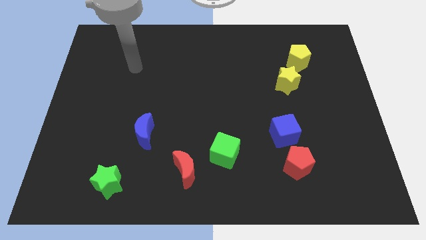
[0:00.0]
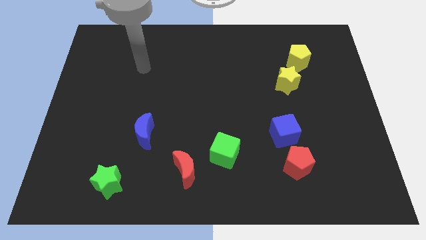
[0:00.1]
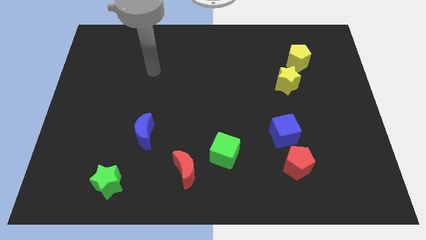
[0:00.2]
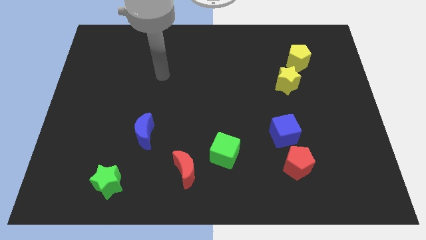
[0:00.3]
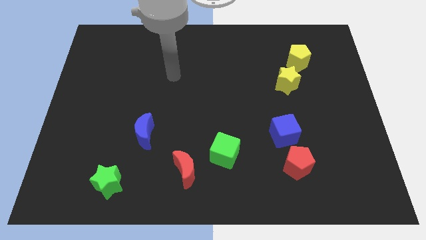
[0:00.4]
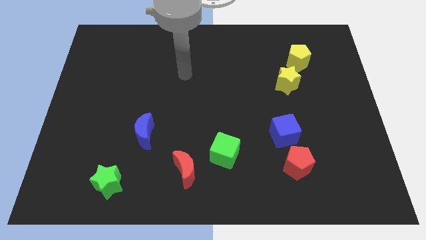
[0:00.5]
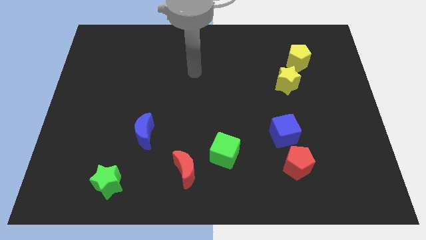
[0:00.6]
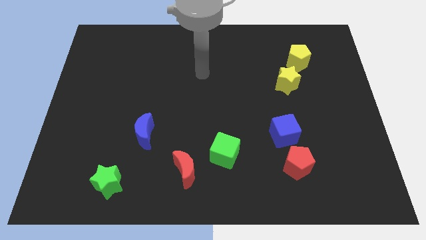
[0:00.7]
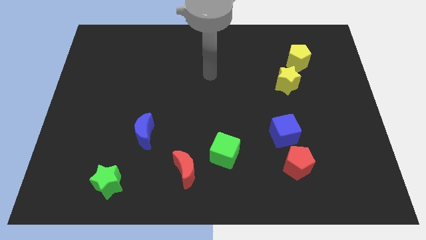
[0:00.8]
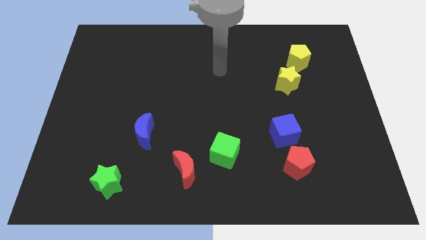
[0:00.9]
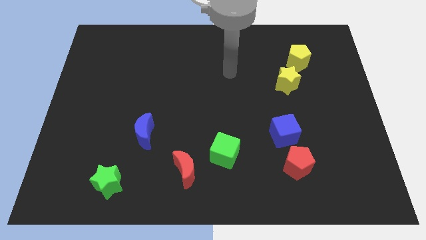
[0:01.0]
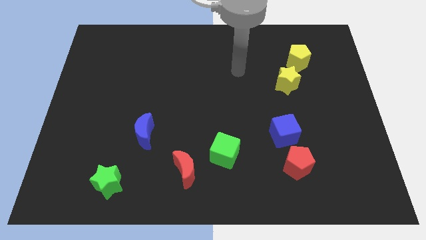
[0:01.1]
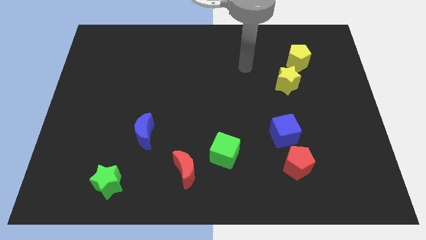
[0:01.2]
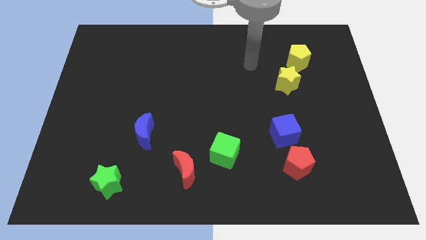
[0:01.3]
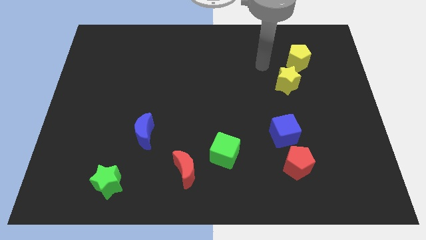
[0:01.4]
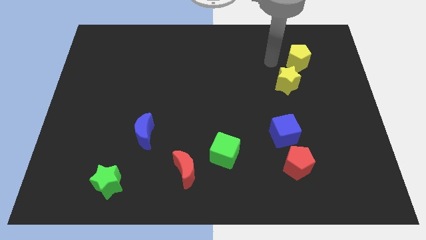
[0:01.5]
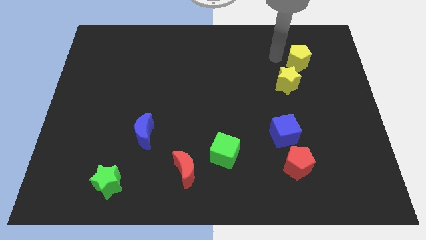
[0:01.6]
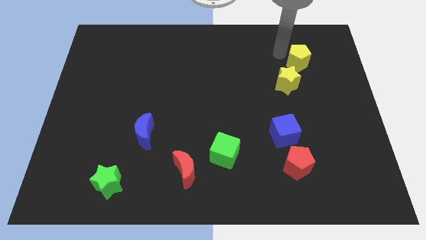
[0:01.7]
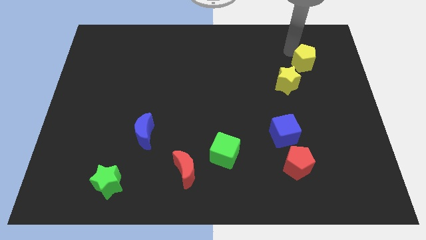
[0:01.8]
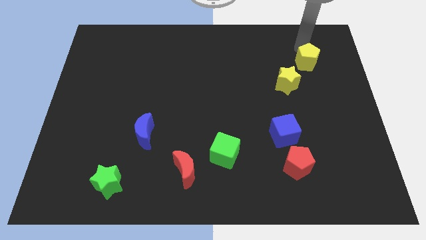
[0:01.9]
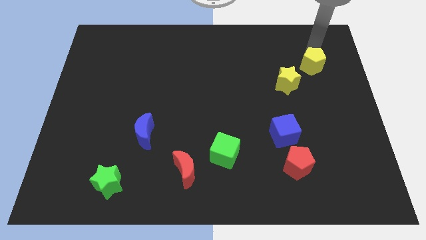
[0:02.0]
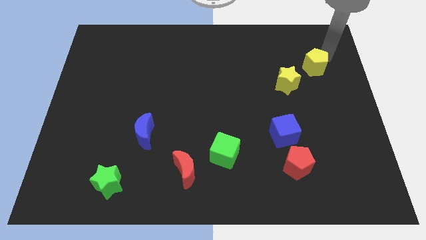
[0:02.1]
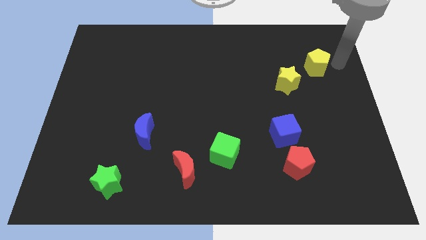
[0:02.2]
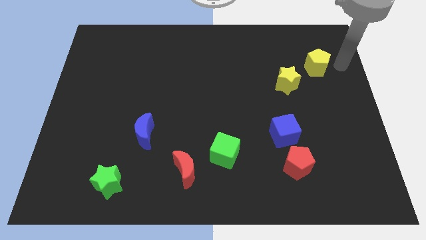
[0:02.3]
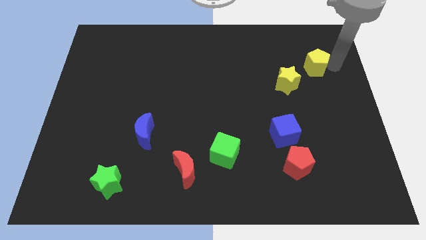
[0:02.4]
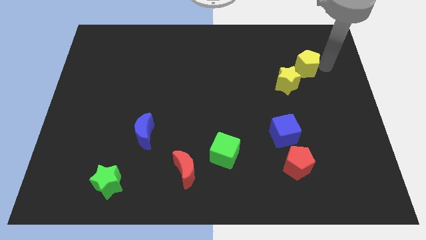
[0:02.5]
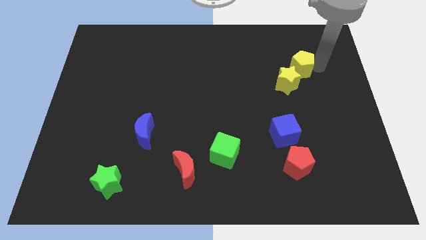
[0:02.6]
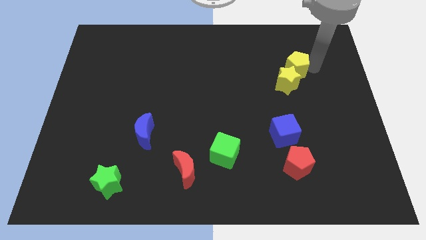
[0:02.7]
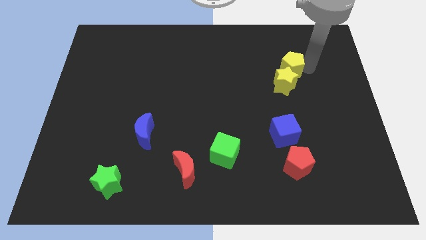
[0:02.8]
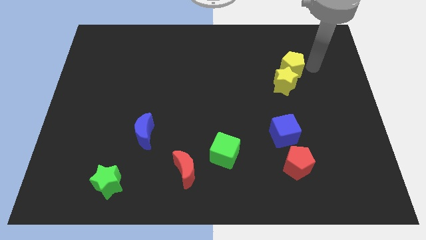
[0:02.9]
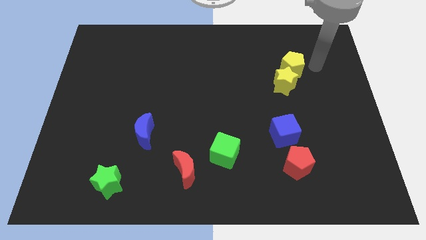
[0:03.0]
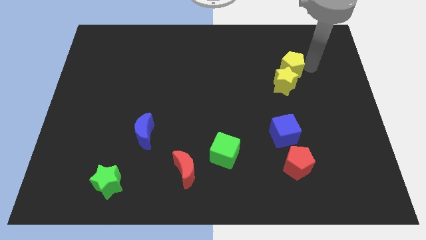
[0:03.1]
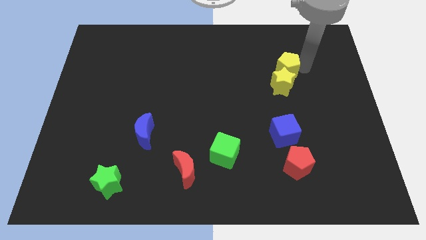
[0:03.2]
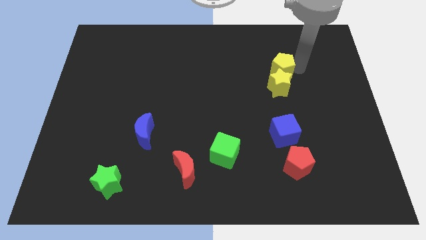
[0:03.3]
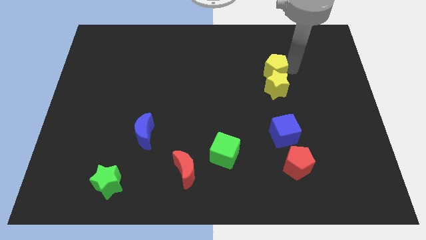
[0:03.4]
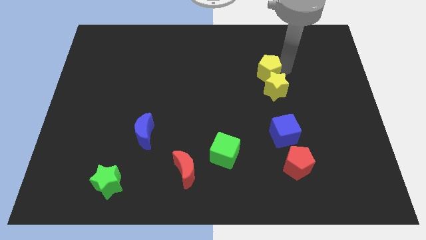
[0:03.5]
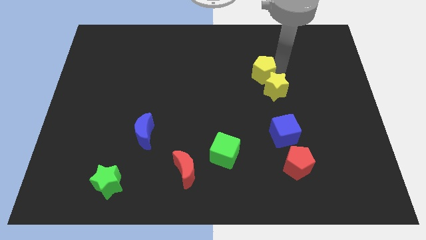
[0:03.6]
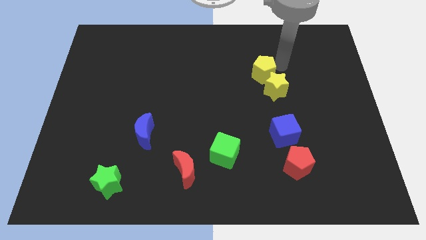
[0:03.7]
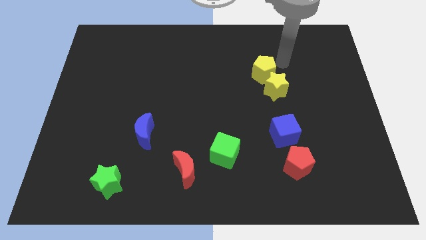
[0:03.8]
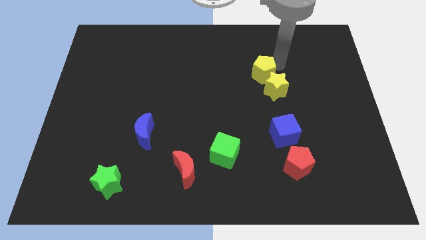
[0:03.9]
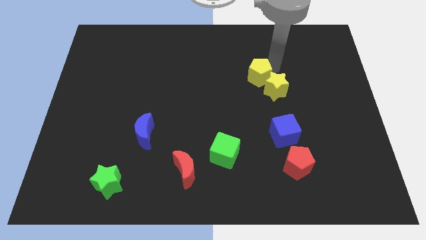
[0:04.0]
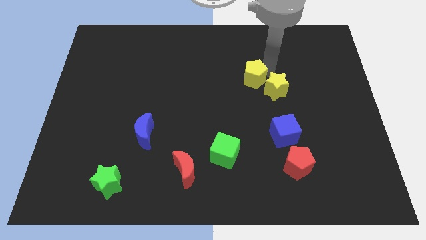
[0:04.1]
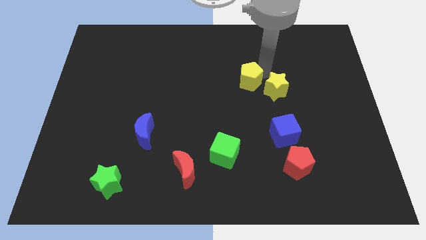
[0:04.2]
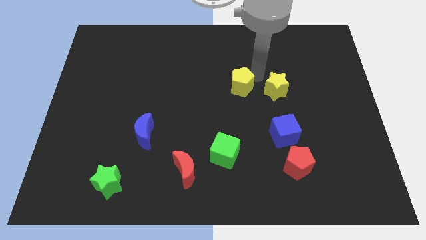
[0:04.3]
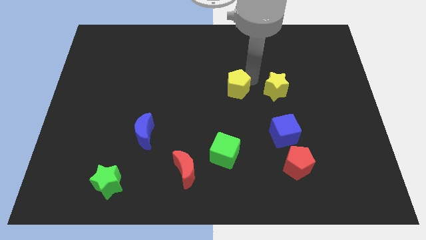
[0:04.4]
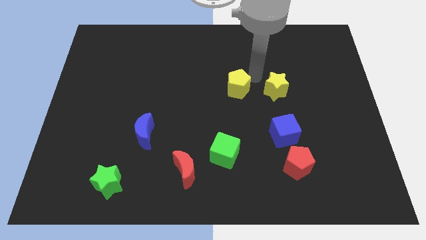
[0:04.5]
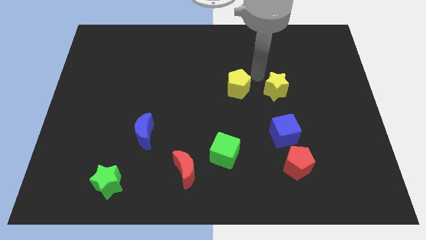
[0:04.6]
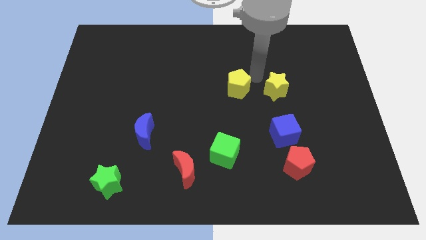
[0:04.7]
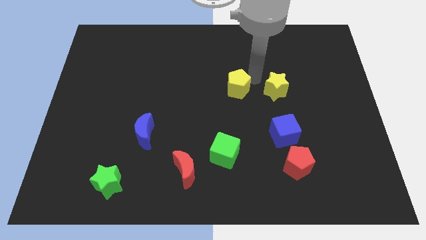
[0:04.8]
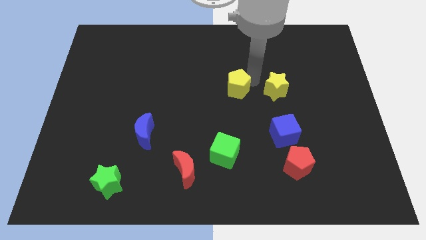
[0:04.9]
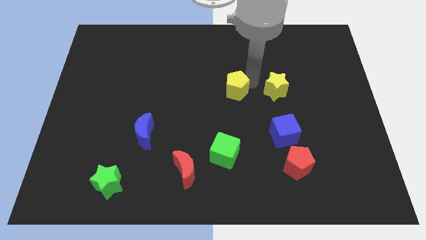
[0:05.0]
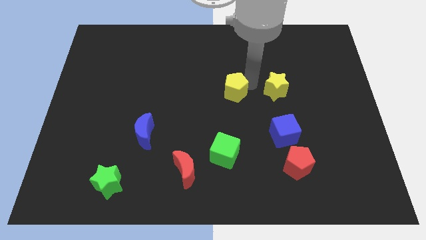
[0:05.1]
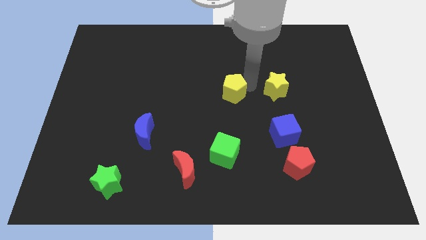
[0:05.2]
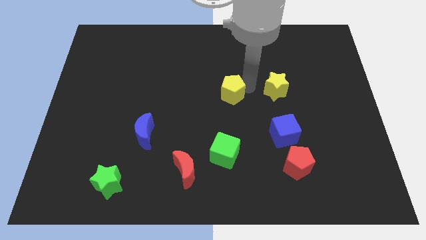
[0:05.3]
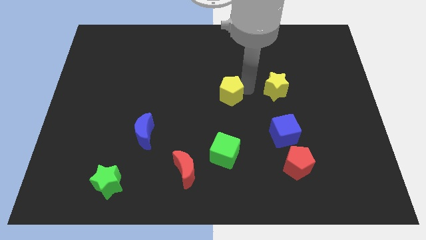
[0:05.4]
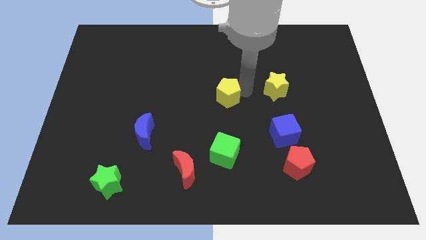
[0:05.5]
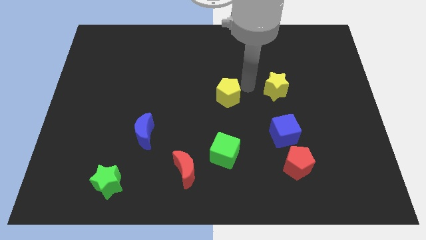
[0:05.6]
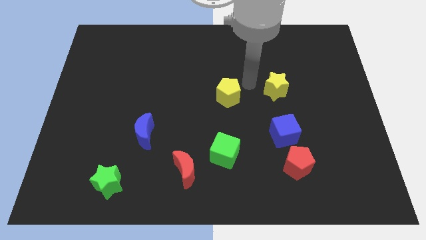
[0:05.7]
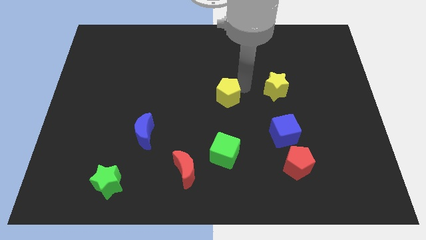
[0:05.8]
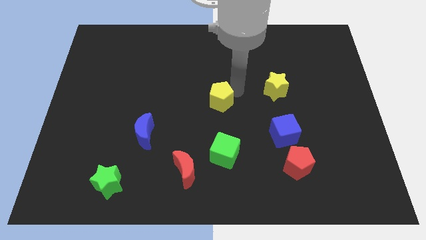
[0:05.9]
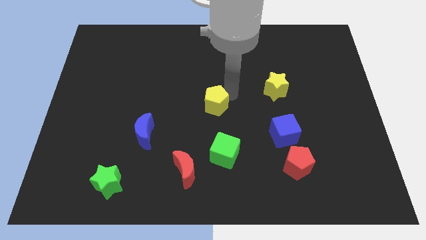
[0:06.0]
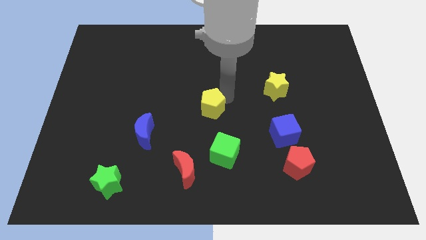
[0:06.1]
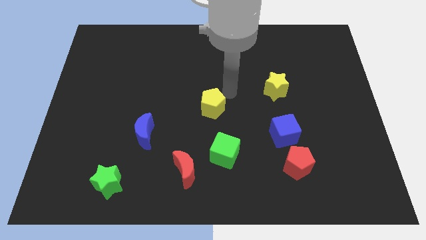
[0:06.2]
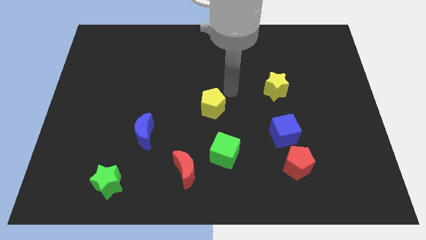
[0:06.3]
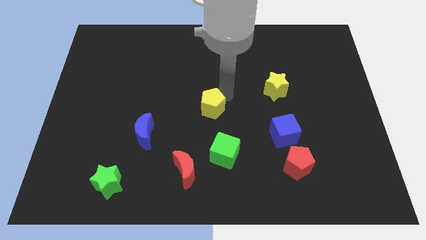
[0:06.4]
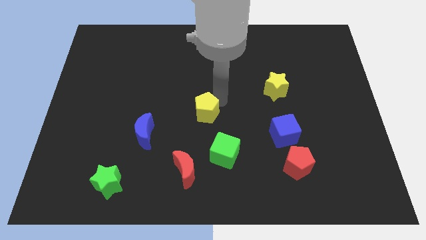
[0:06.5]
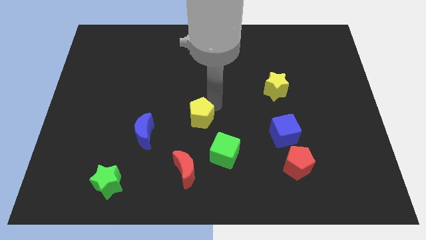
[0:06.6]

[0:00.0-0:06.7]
push the yellow pentagon to the top of the red moon

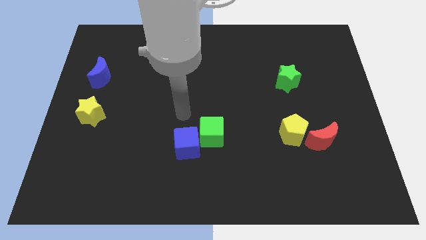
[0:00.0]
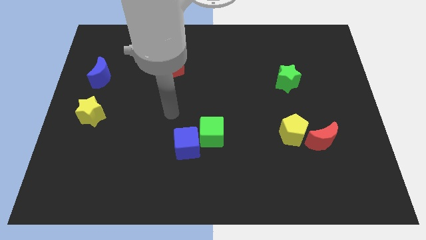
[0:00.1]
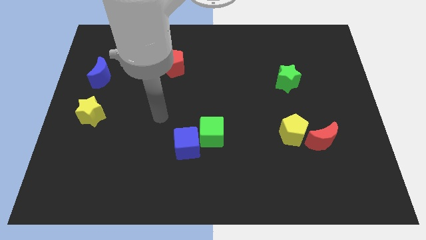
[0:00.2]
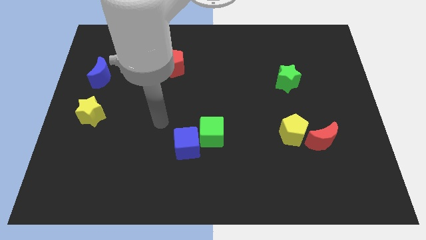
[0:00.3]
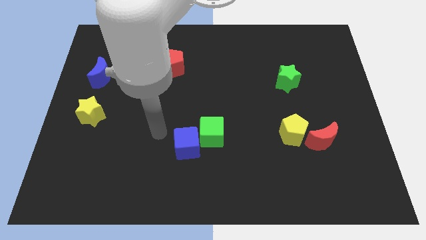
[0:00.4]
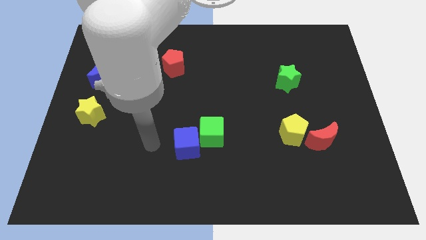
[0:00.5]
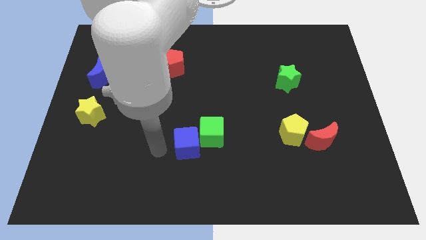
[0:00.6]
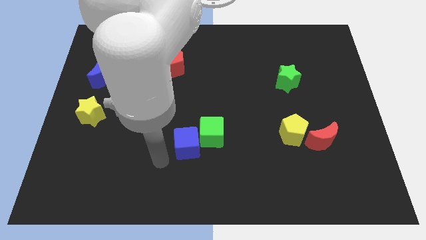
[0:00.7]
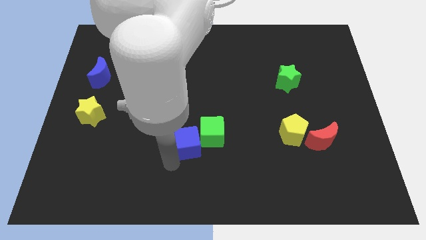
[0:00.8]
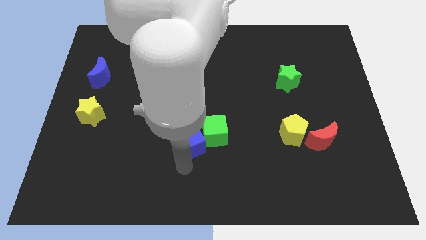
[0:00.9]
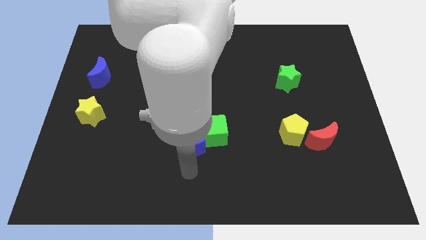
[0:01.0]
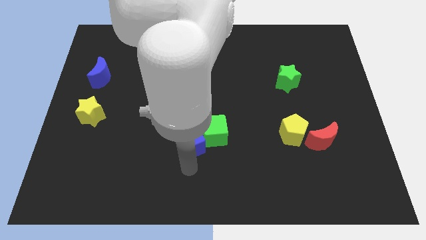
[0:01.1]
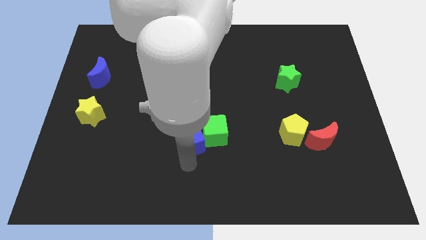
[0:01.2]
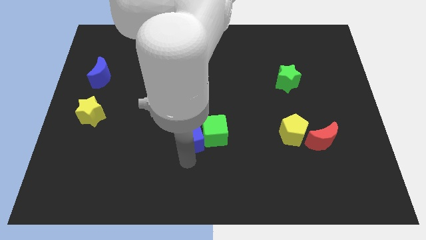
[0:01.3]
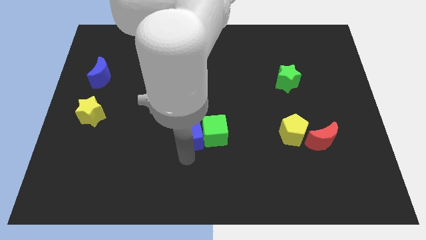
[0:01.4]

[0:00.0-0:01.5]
slide the blue cube diagonally up and to the left of the green cube
